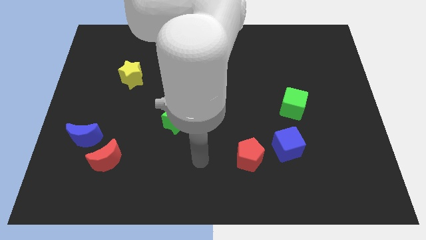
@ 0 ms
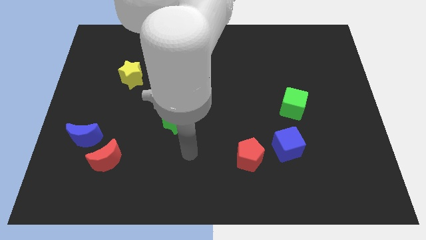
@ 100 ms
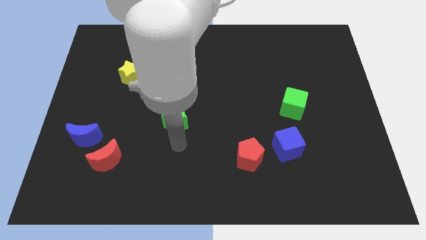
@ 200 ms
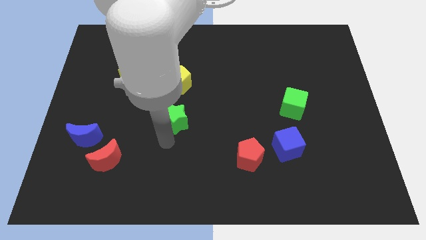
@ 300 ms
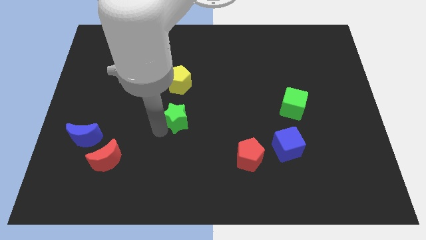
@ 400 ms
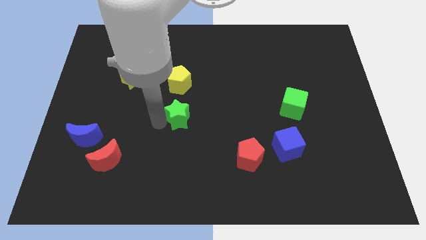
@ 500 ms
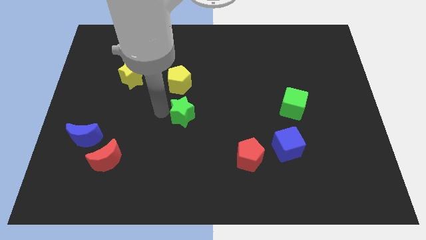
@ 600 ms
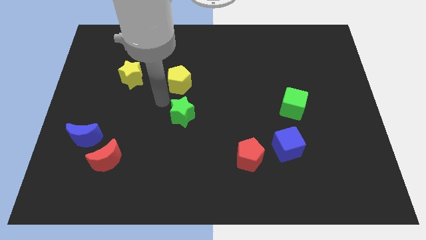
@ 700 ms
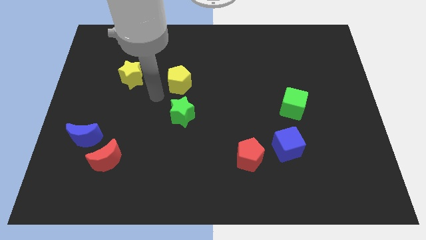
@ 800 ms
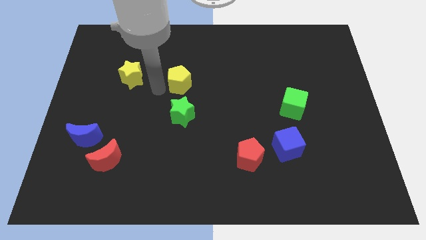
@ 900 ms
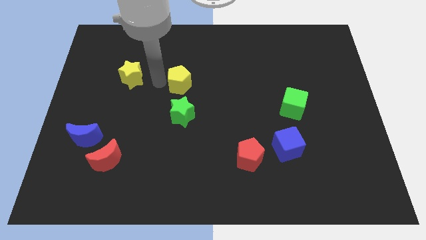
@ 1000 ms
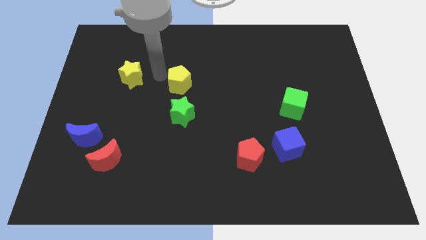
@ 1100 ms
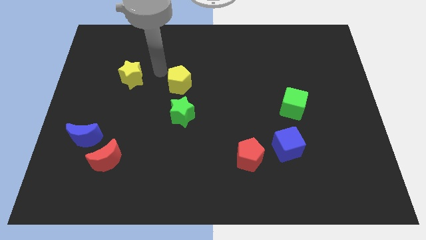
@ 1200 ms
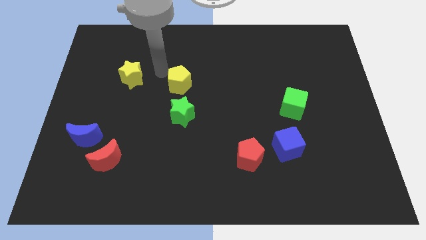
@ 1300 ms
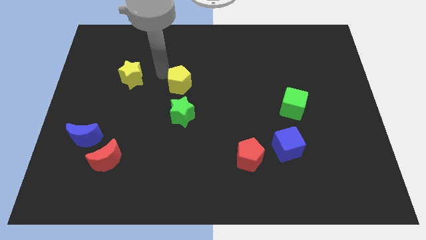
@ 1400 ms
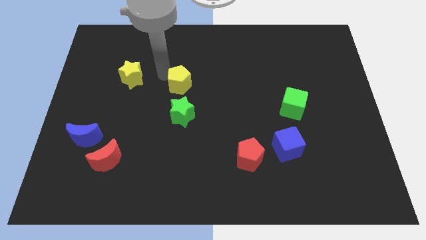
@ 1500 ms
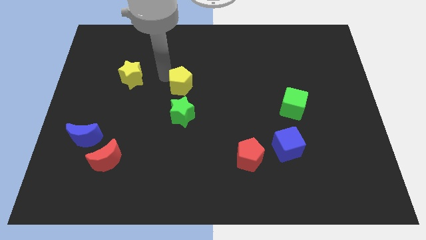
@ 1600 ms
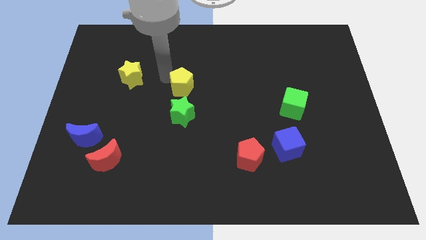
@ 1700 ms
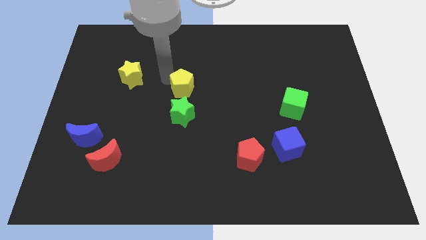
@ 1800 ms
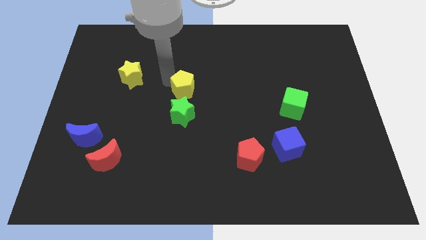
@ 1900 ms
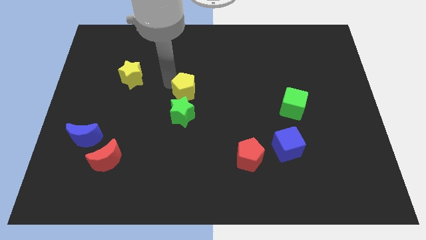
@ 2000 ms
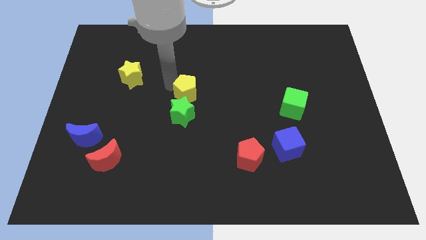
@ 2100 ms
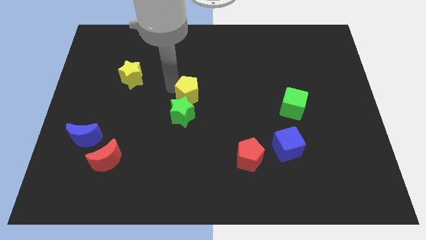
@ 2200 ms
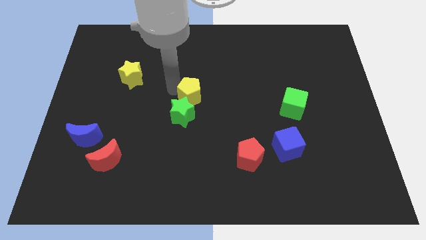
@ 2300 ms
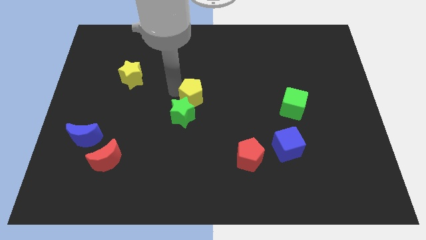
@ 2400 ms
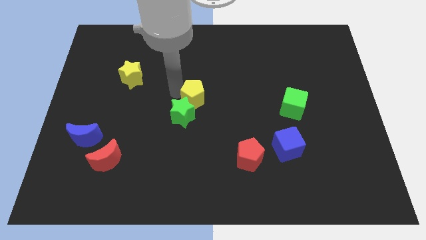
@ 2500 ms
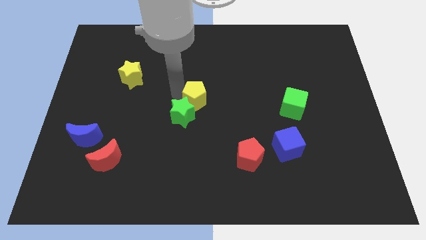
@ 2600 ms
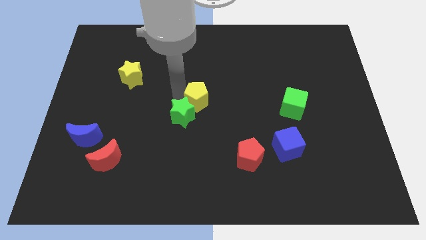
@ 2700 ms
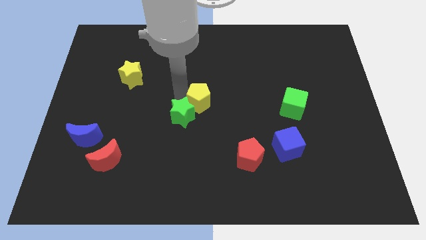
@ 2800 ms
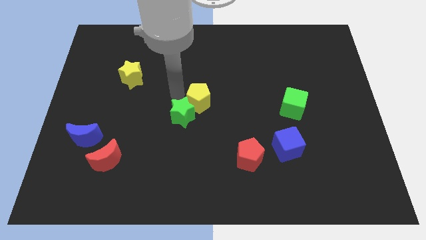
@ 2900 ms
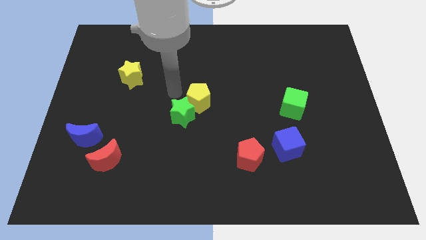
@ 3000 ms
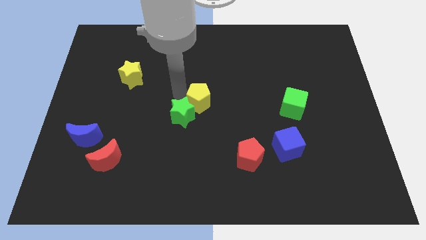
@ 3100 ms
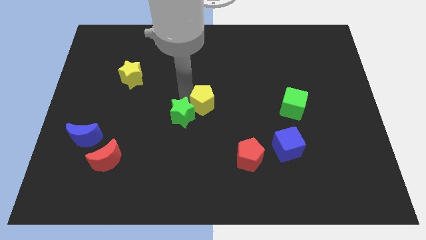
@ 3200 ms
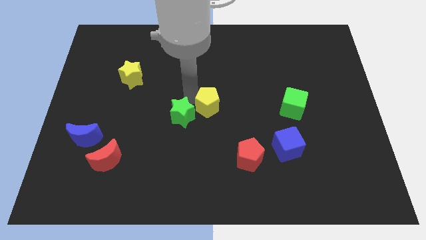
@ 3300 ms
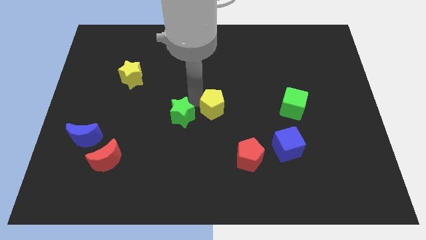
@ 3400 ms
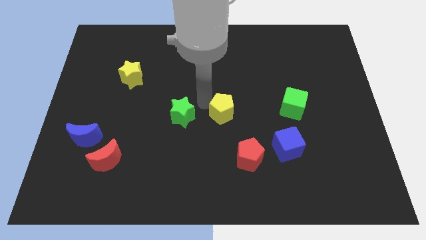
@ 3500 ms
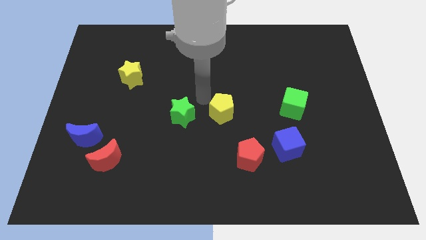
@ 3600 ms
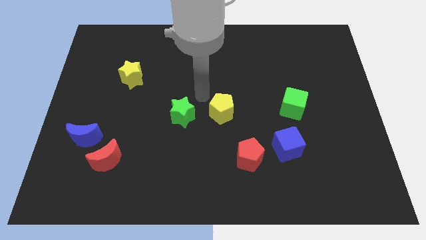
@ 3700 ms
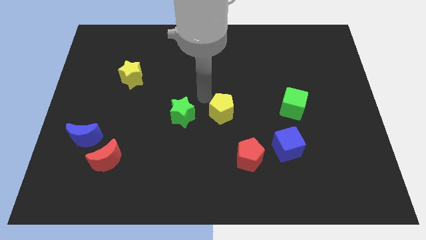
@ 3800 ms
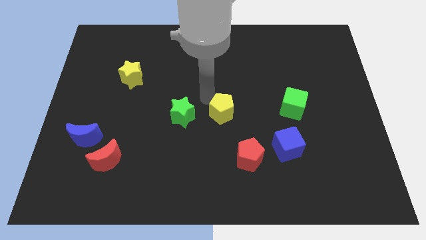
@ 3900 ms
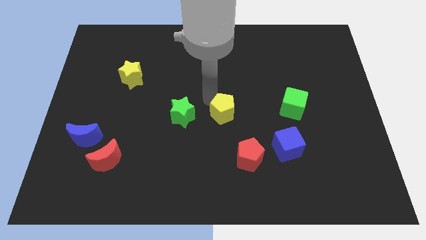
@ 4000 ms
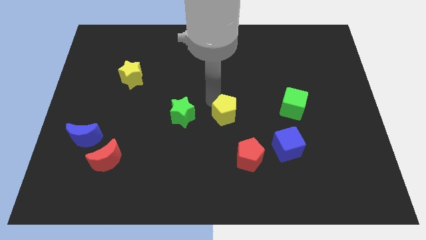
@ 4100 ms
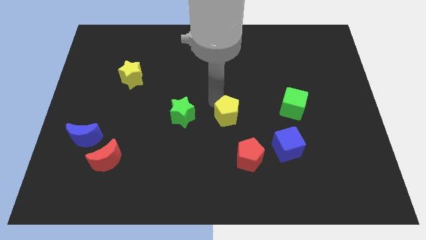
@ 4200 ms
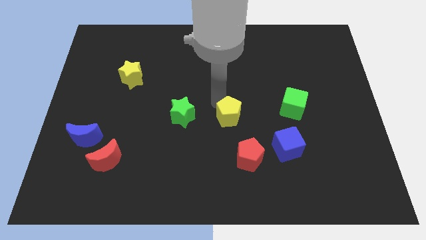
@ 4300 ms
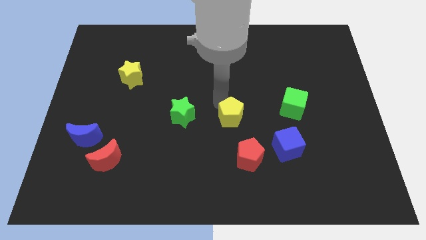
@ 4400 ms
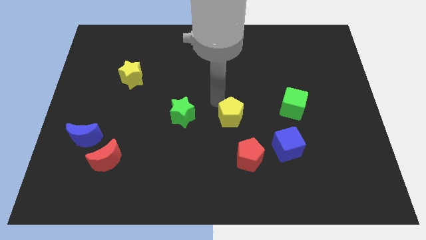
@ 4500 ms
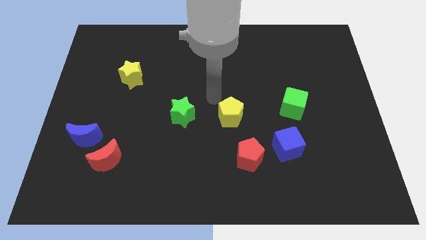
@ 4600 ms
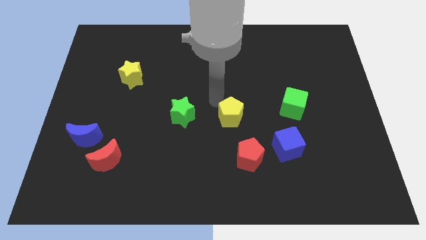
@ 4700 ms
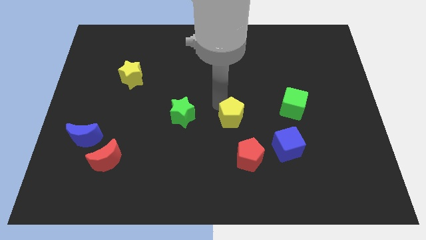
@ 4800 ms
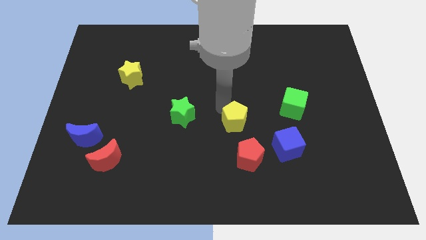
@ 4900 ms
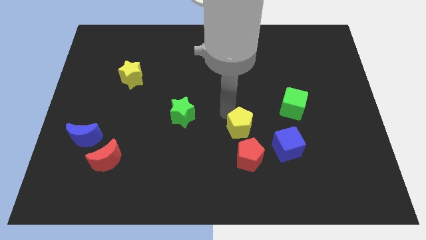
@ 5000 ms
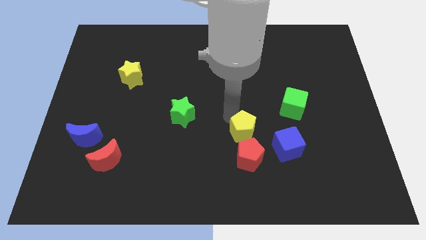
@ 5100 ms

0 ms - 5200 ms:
move the yellow pentagon diagonally down and right

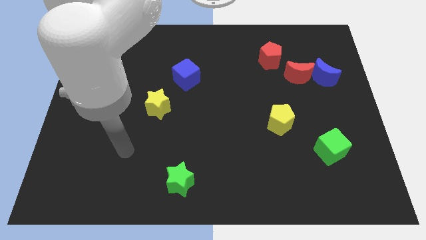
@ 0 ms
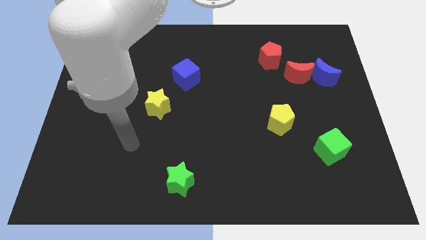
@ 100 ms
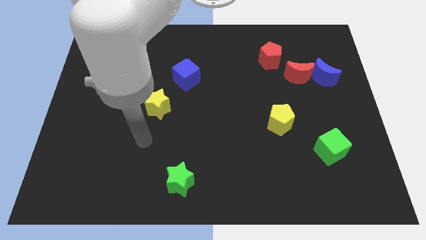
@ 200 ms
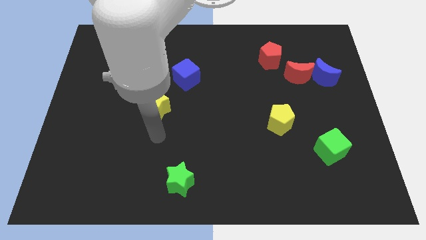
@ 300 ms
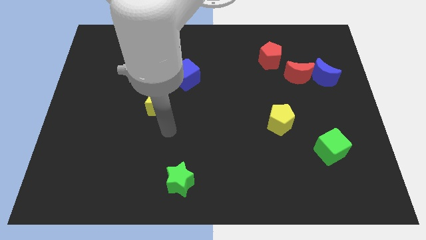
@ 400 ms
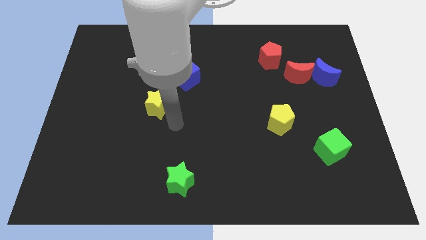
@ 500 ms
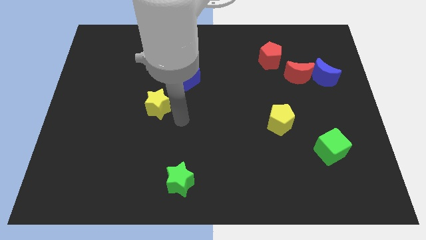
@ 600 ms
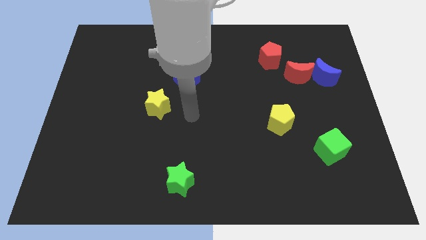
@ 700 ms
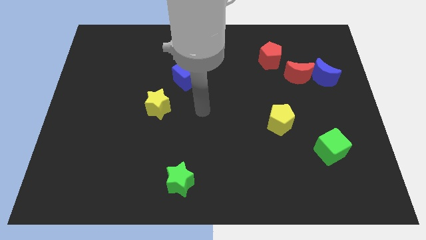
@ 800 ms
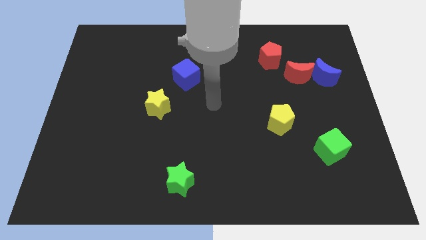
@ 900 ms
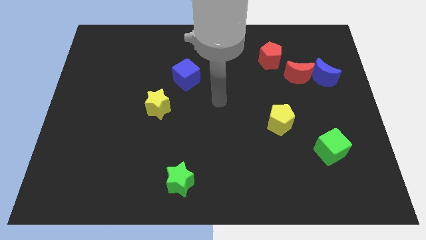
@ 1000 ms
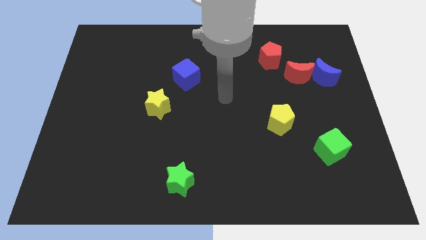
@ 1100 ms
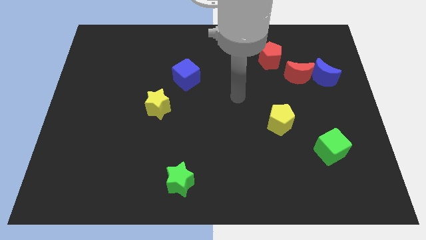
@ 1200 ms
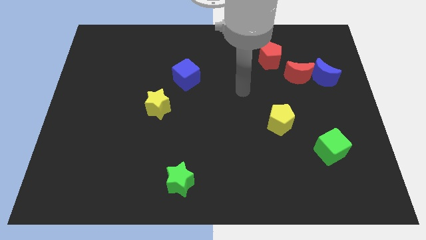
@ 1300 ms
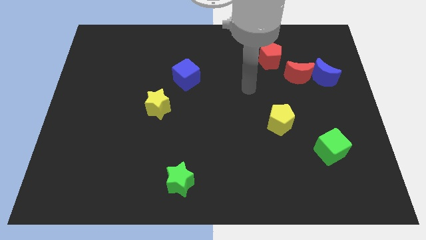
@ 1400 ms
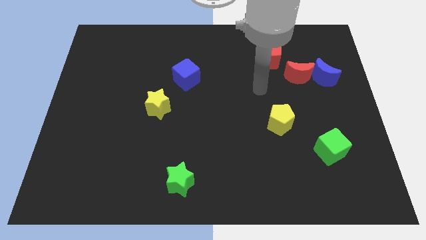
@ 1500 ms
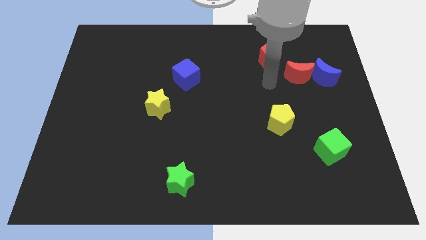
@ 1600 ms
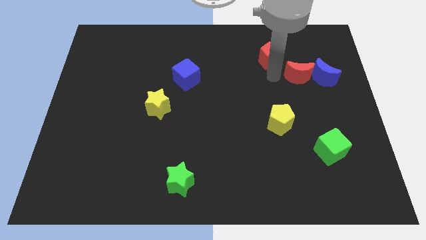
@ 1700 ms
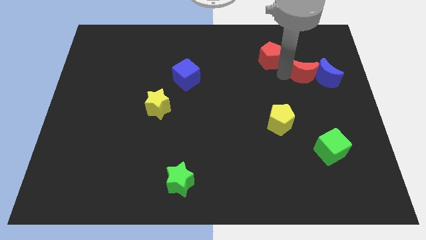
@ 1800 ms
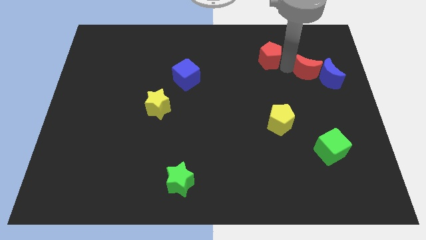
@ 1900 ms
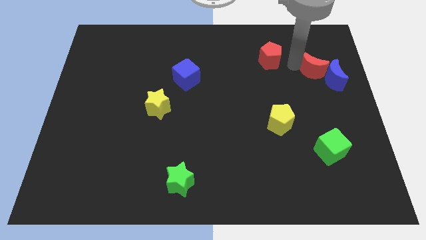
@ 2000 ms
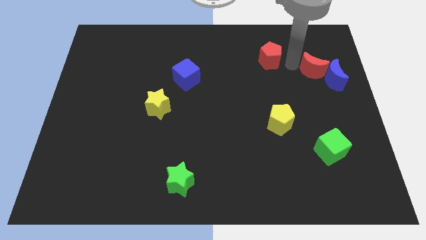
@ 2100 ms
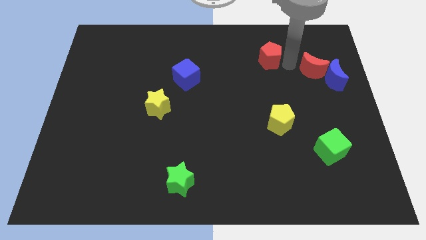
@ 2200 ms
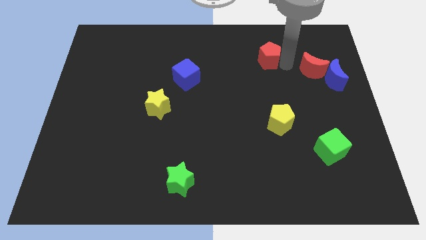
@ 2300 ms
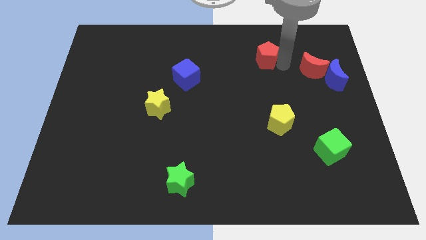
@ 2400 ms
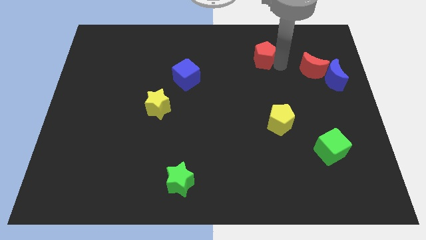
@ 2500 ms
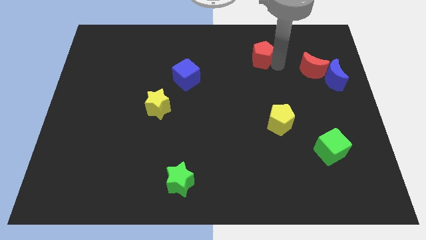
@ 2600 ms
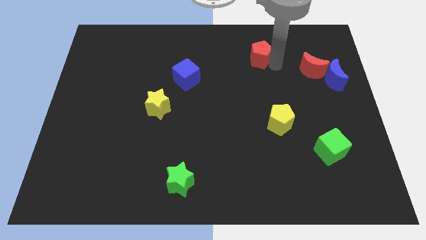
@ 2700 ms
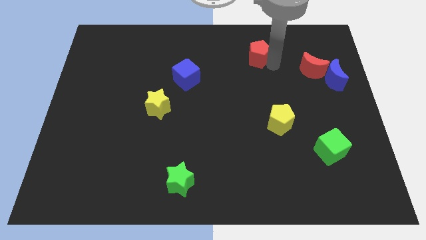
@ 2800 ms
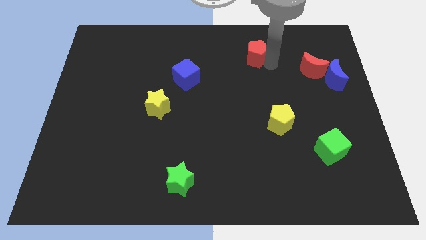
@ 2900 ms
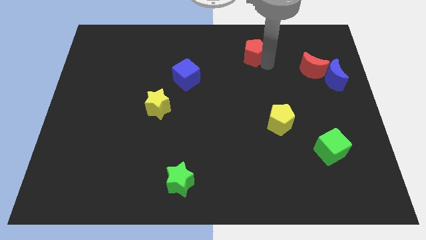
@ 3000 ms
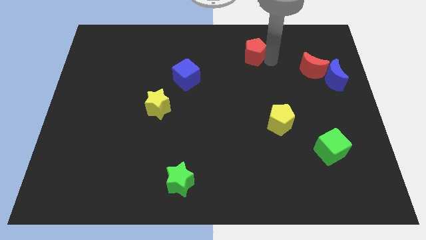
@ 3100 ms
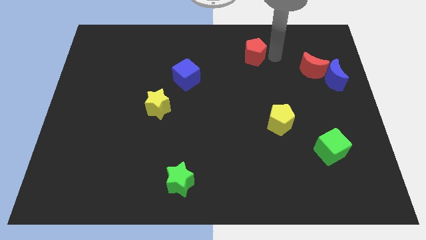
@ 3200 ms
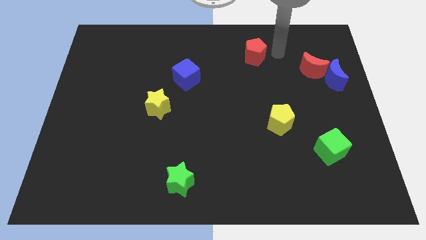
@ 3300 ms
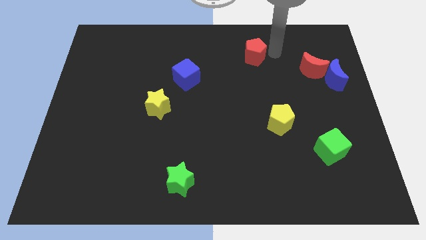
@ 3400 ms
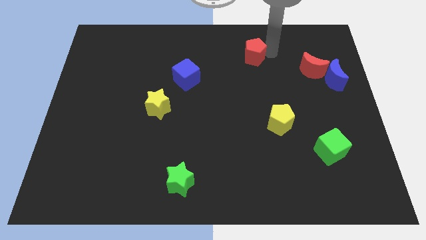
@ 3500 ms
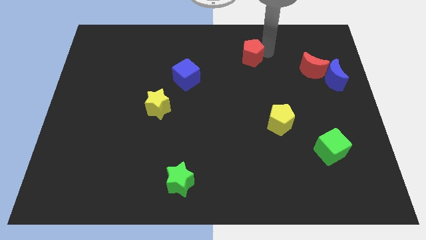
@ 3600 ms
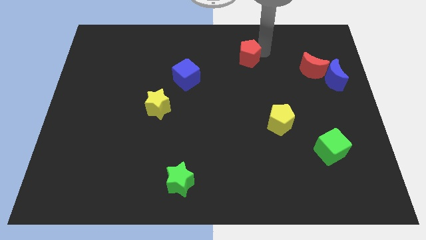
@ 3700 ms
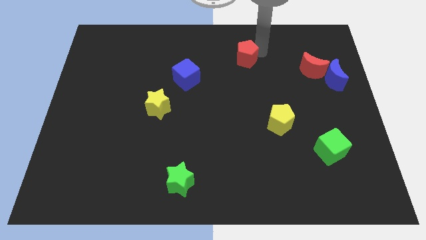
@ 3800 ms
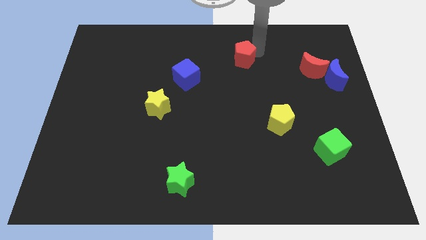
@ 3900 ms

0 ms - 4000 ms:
slightly push the red pentagon to the left
